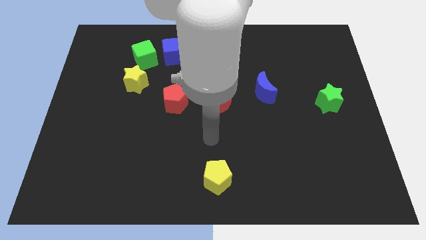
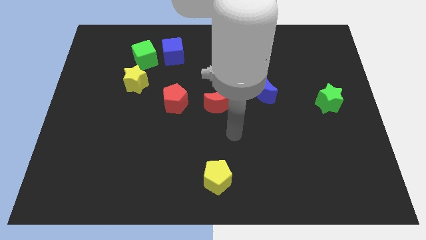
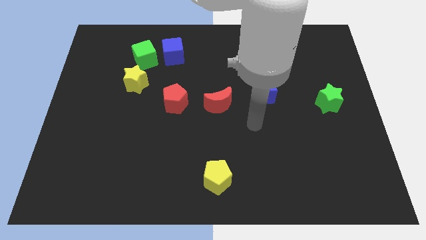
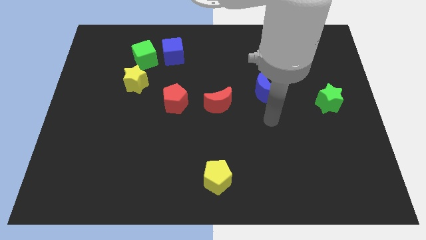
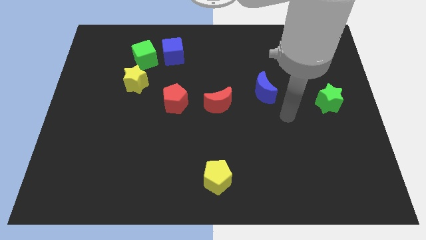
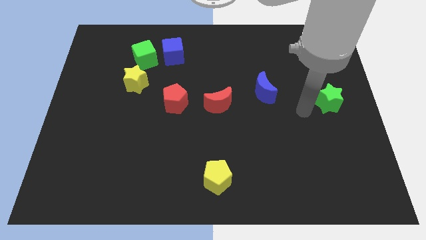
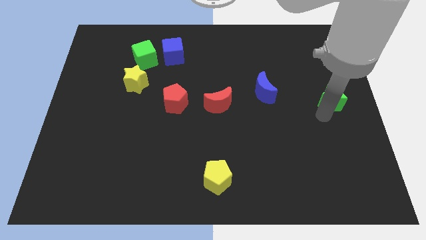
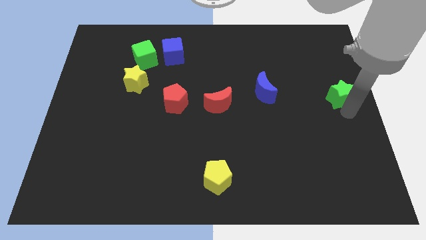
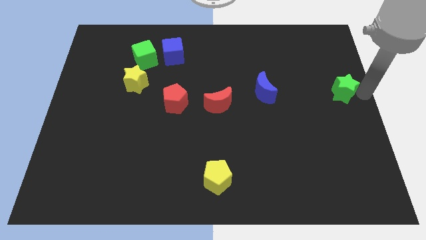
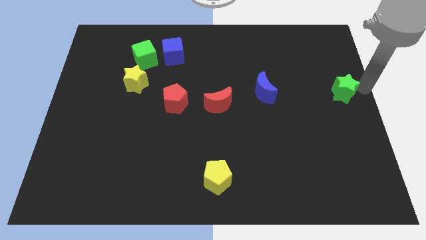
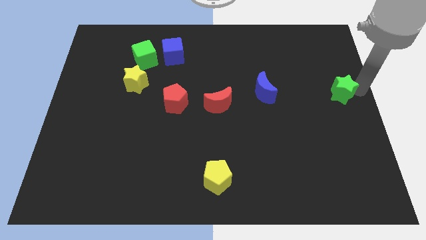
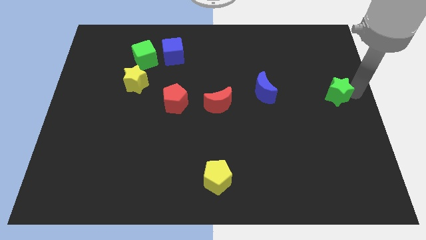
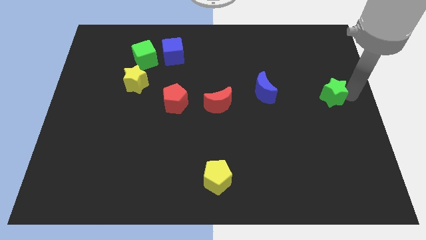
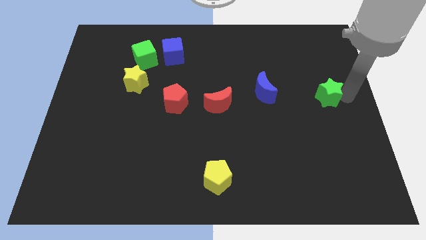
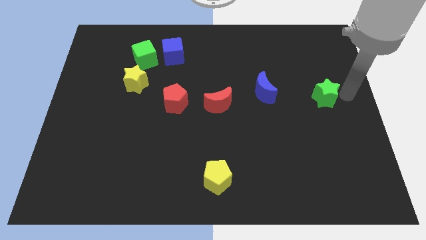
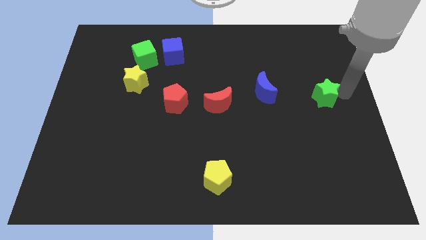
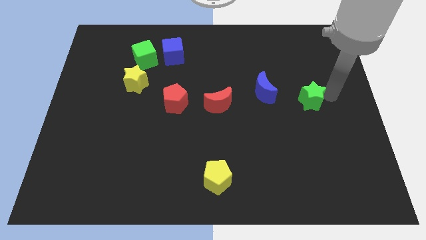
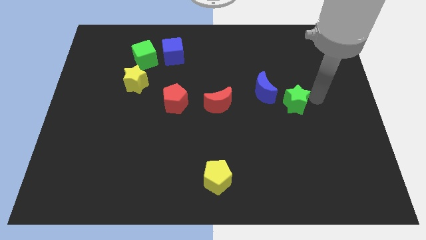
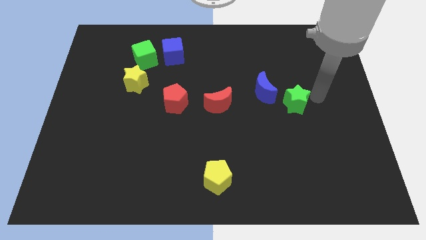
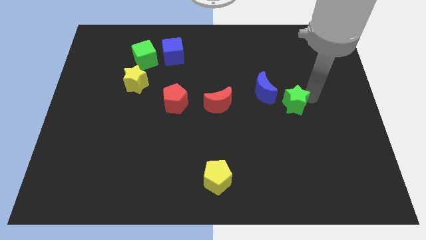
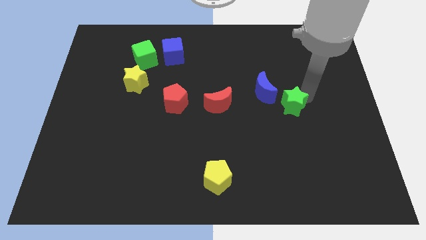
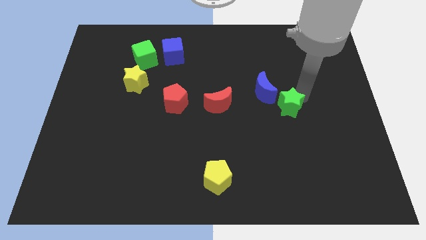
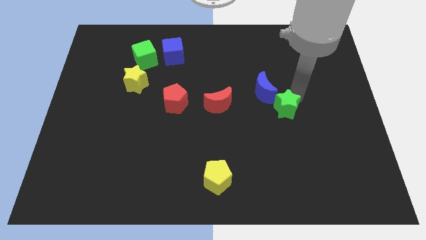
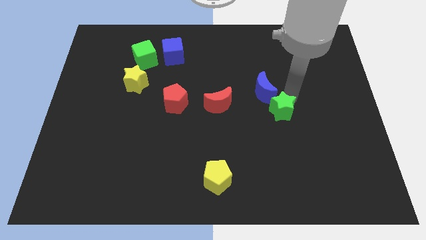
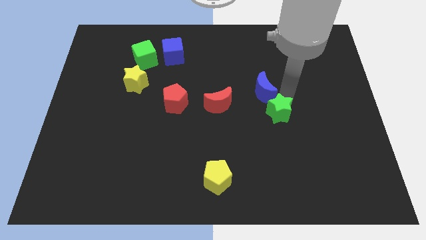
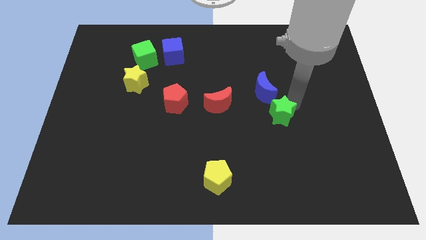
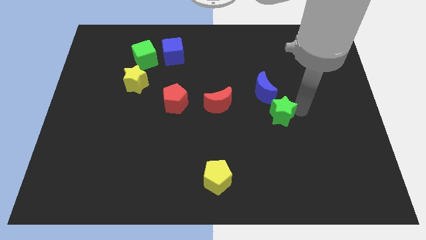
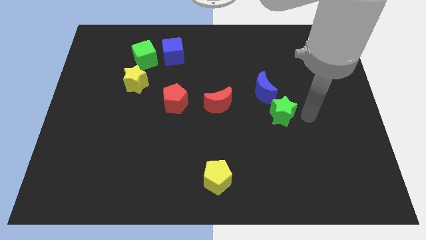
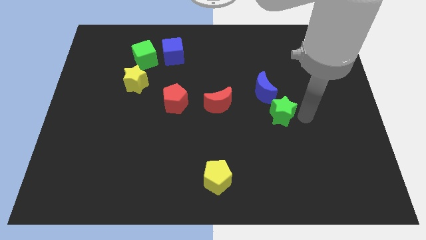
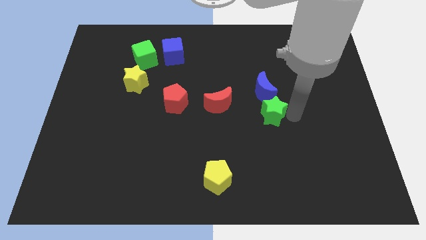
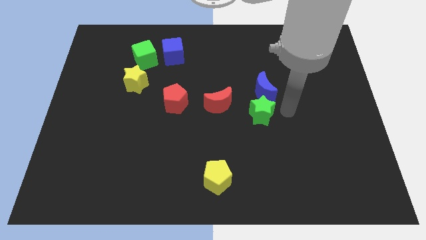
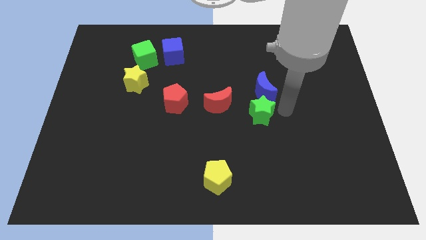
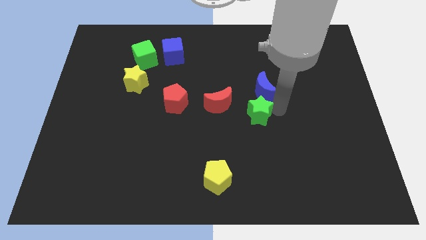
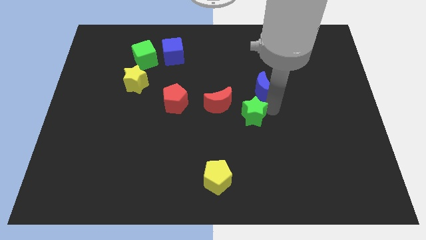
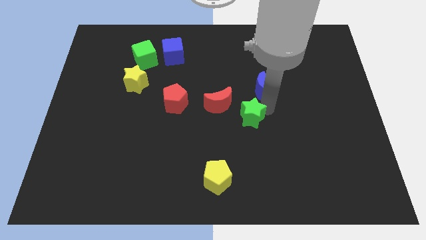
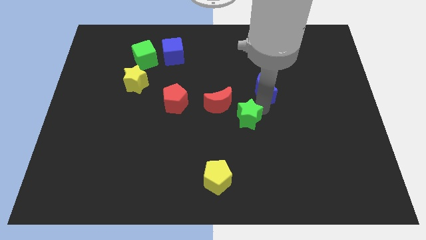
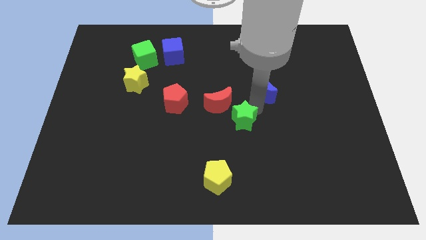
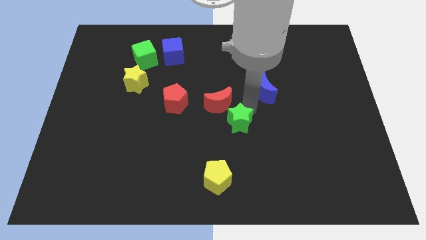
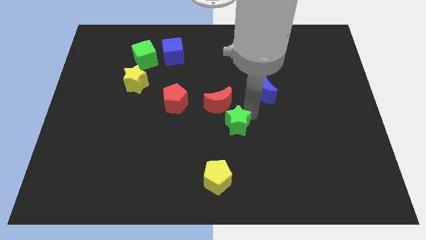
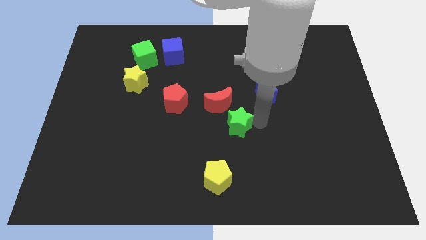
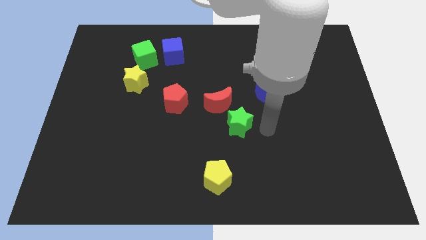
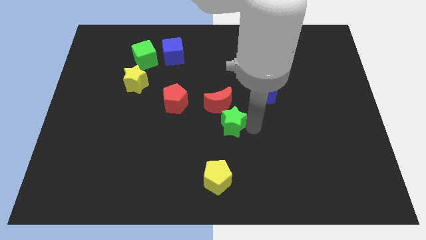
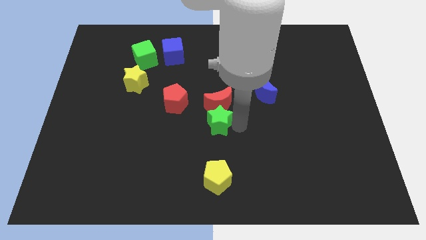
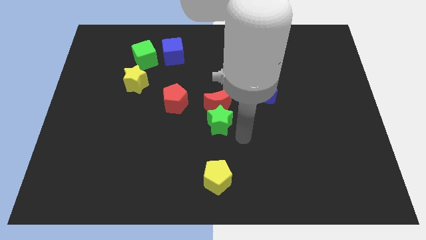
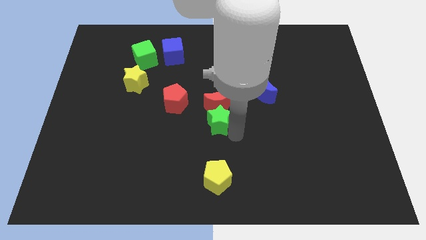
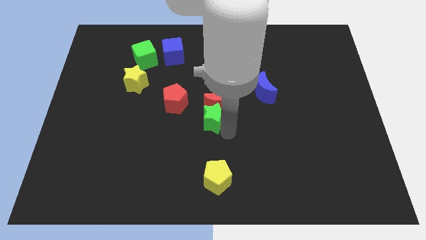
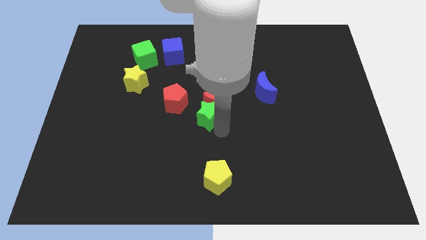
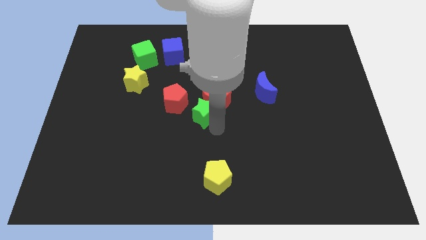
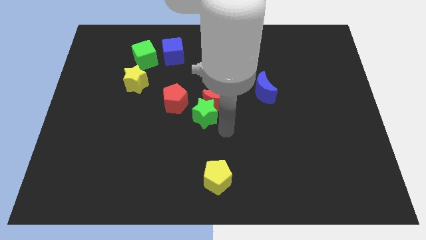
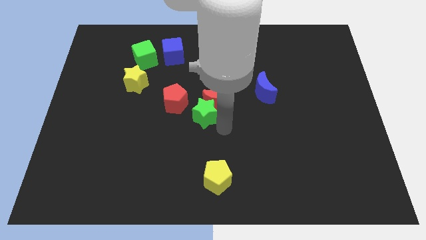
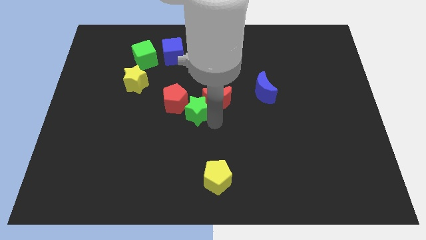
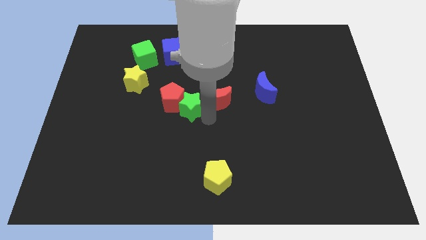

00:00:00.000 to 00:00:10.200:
put the green star next to the red pentagon

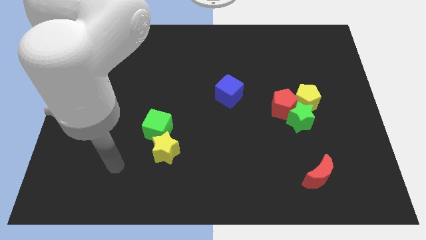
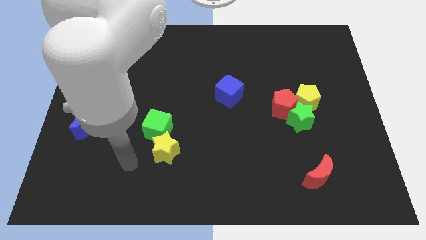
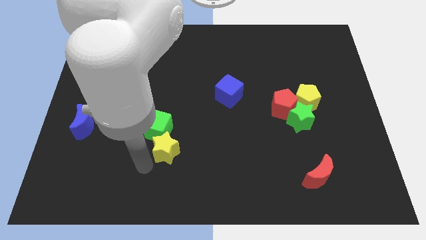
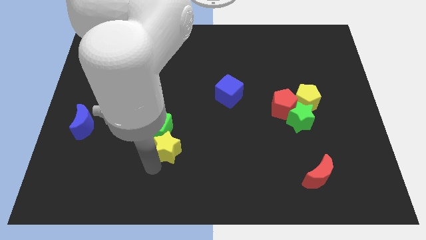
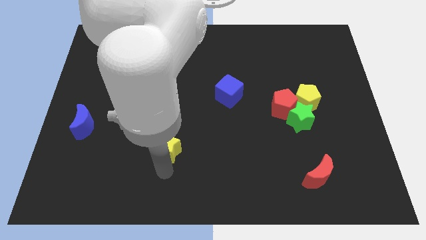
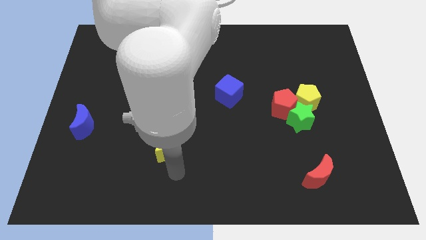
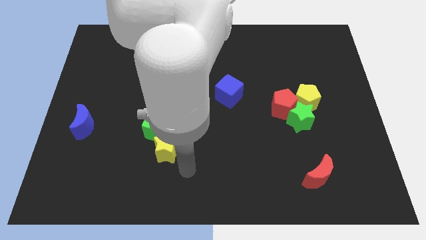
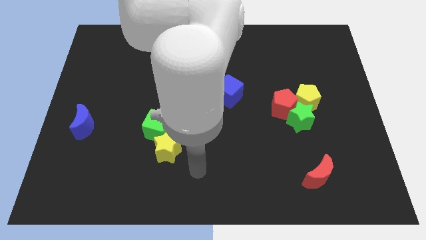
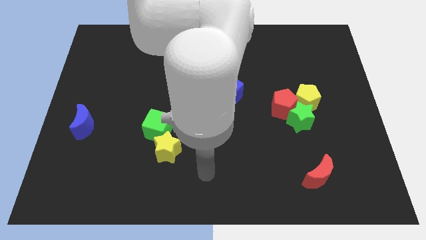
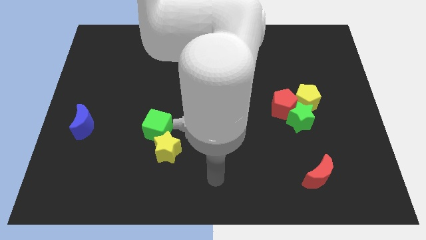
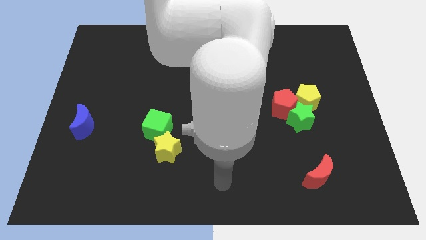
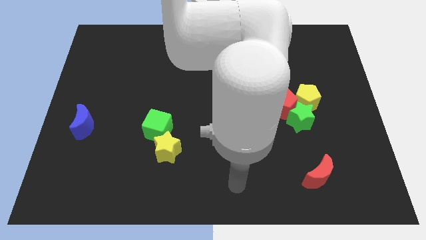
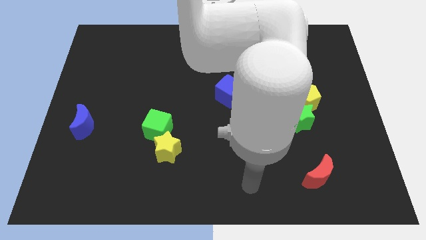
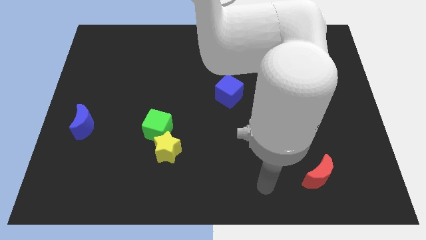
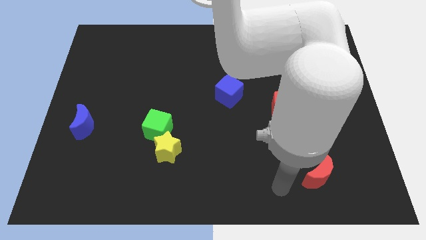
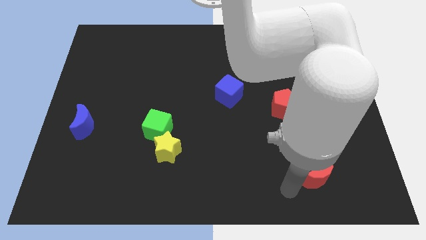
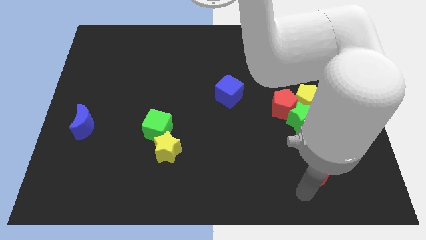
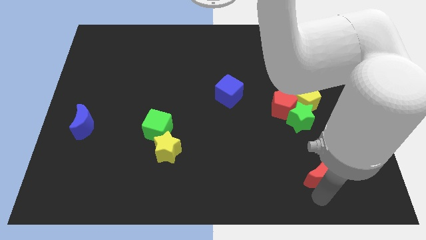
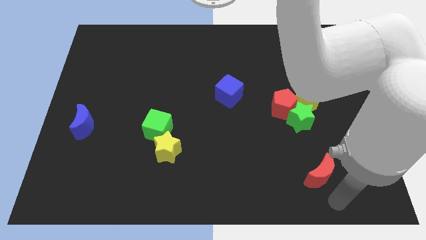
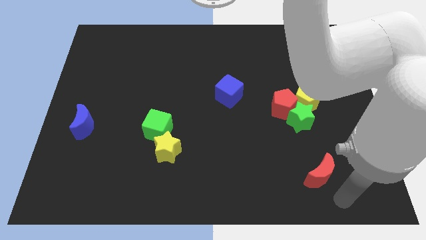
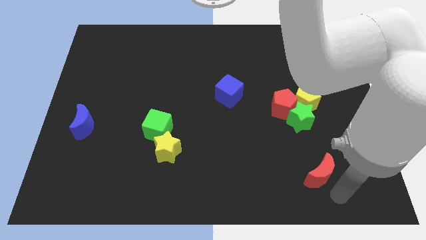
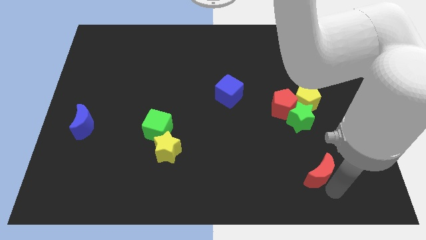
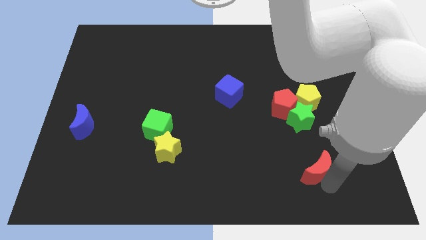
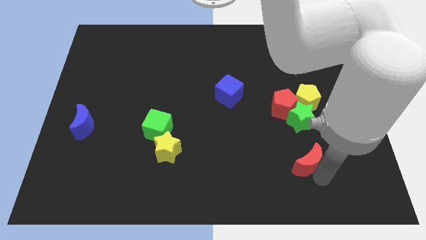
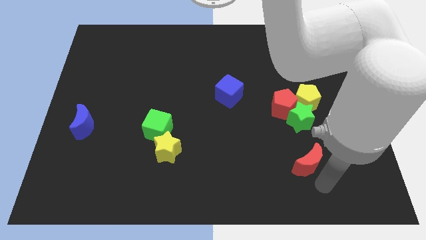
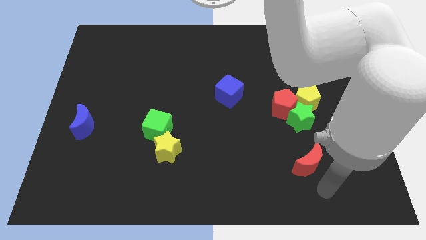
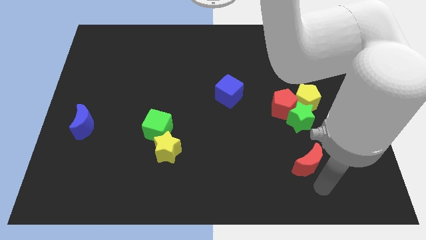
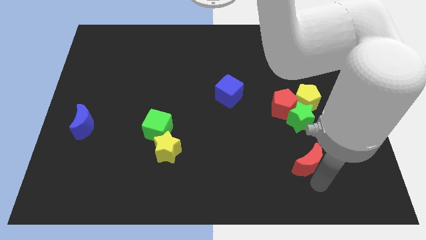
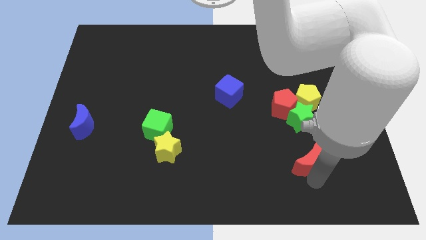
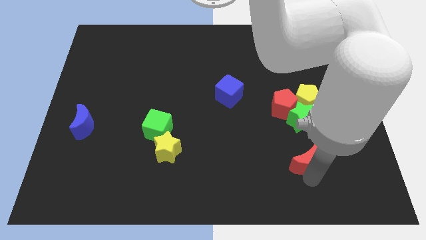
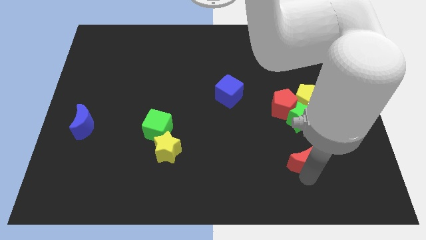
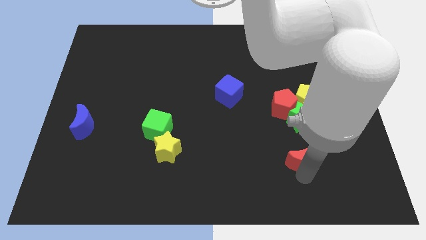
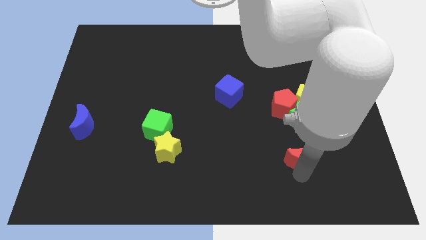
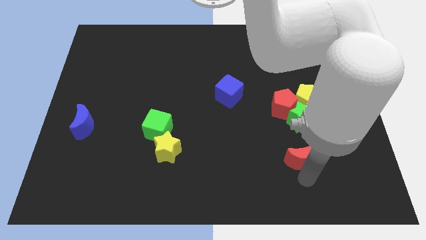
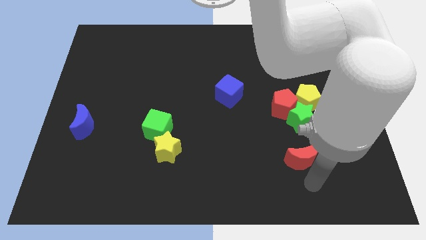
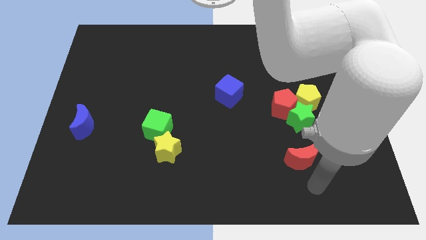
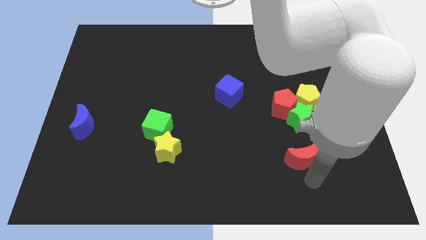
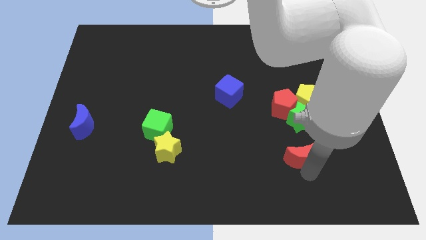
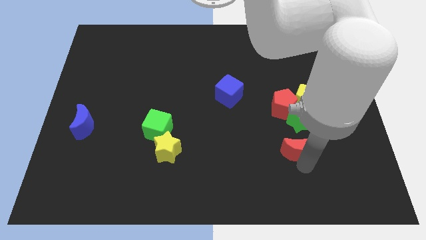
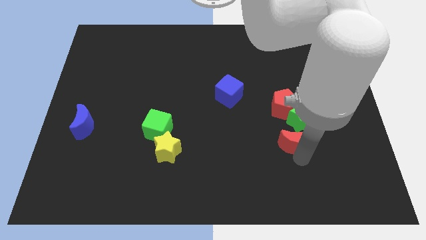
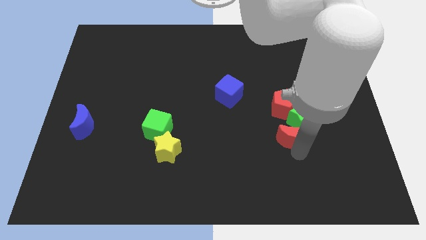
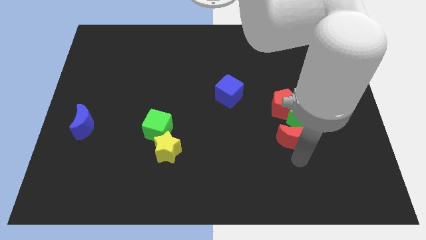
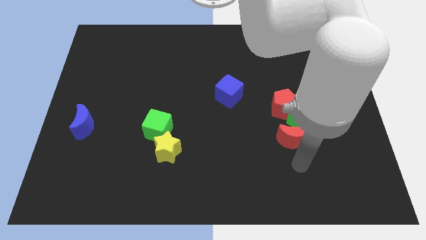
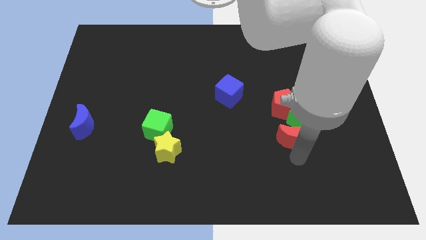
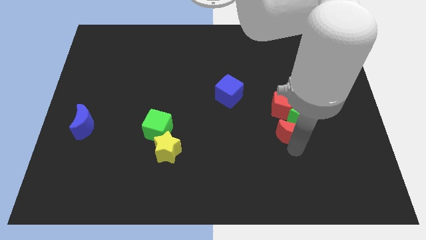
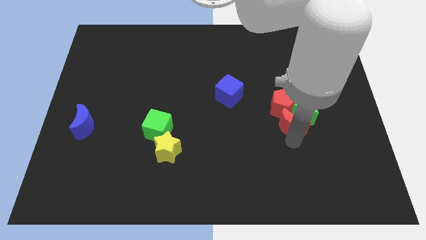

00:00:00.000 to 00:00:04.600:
move the red moon to the red pentagon
